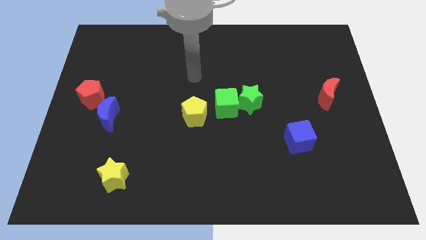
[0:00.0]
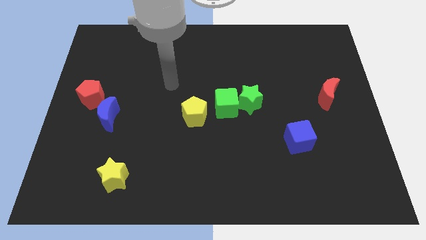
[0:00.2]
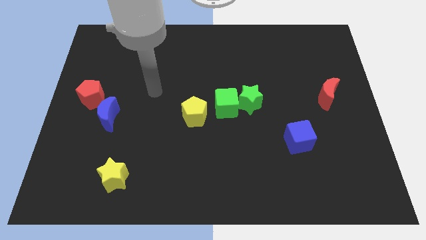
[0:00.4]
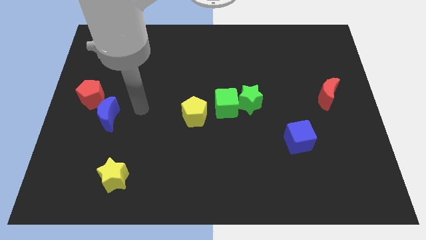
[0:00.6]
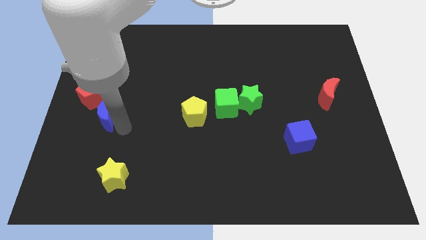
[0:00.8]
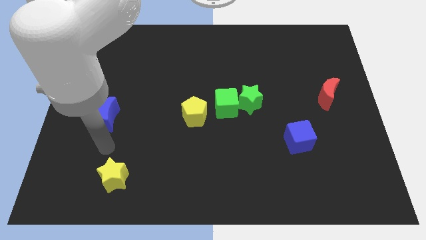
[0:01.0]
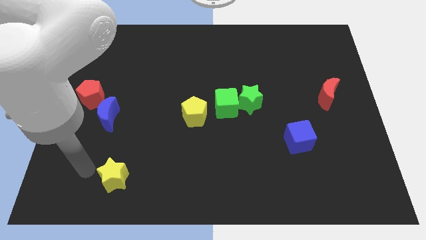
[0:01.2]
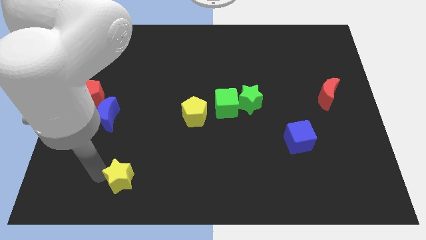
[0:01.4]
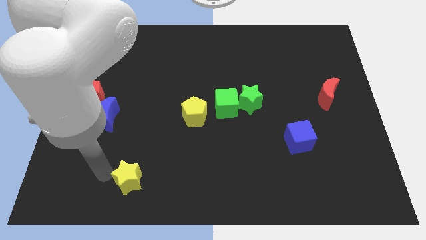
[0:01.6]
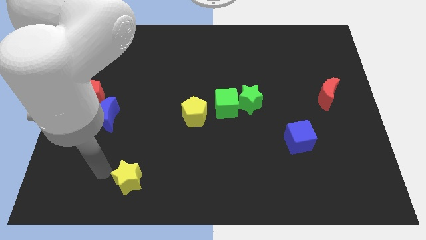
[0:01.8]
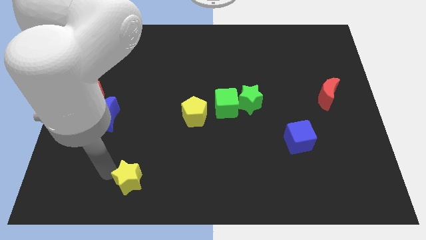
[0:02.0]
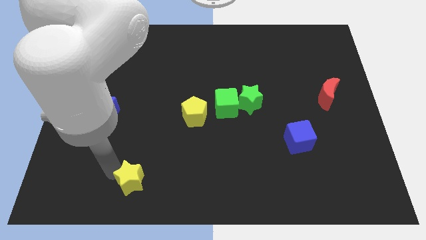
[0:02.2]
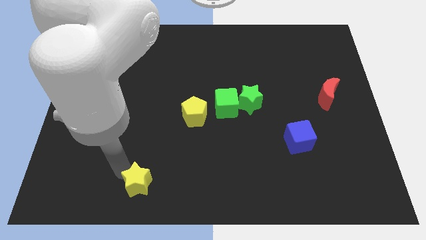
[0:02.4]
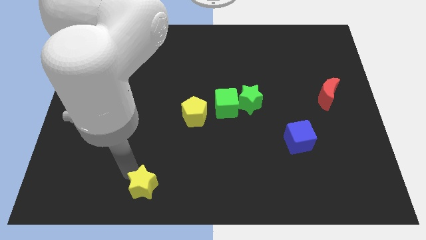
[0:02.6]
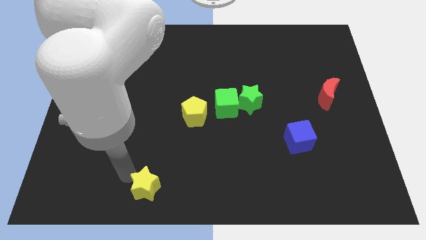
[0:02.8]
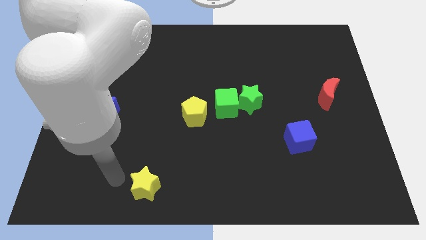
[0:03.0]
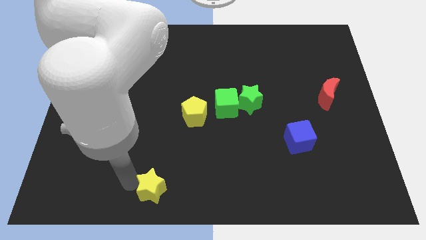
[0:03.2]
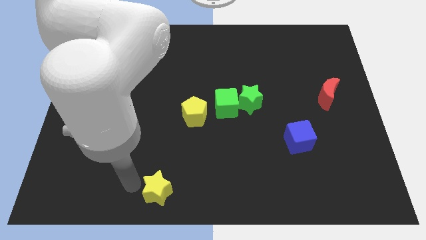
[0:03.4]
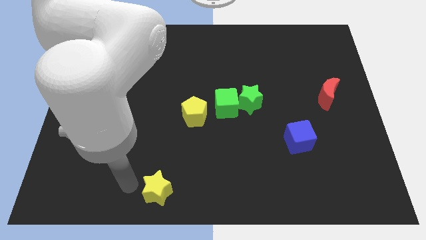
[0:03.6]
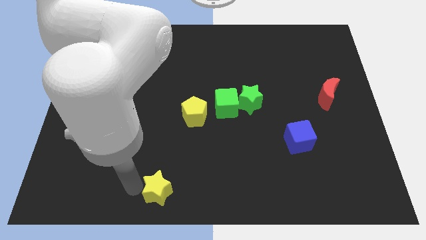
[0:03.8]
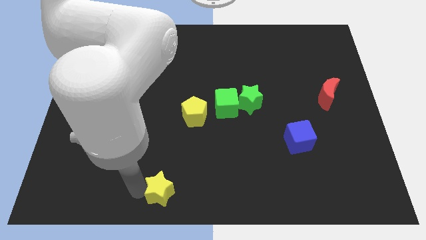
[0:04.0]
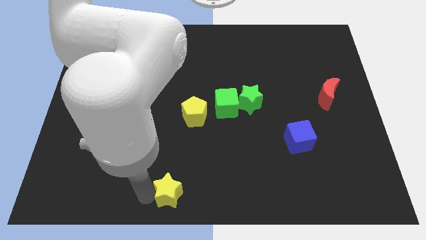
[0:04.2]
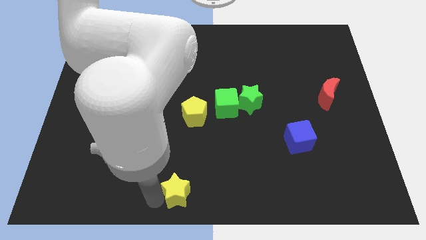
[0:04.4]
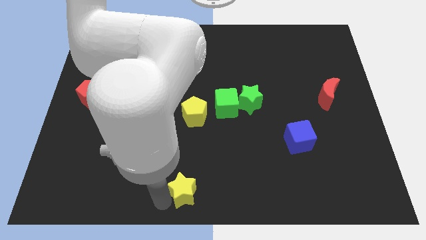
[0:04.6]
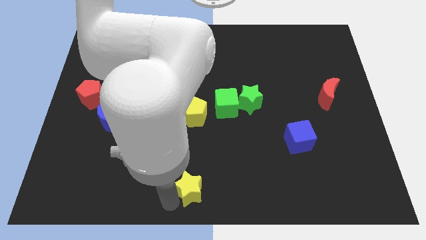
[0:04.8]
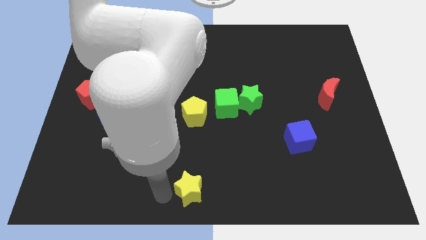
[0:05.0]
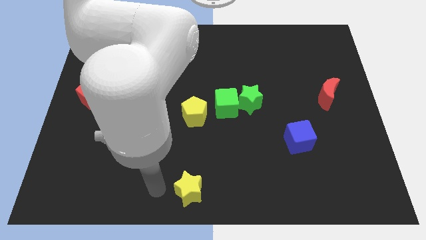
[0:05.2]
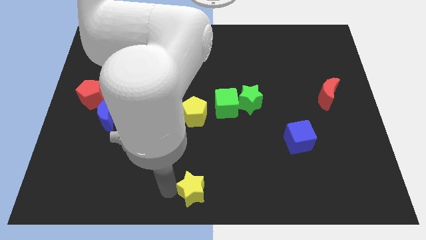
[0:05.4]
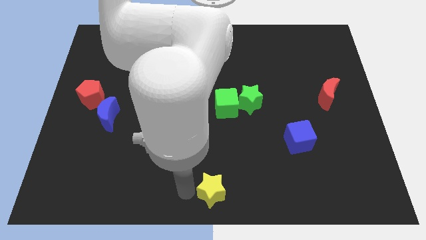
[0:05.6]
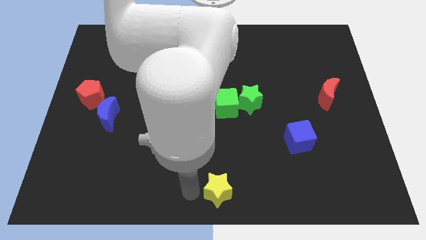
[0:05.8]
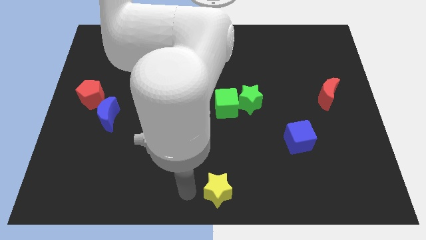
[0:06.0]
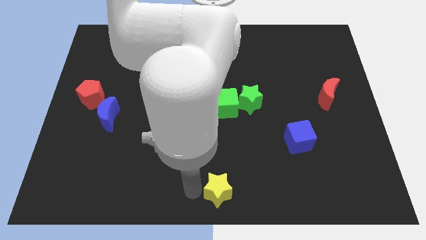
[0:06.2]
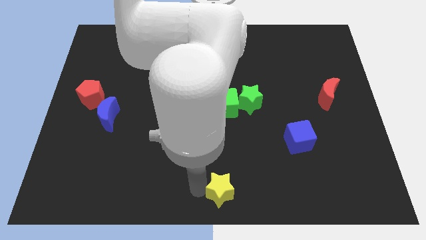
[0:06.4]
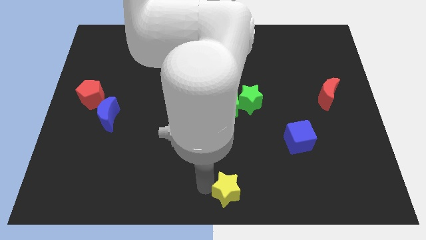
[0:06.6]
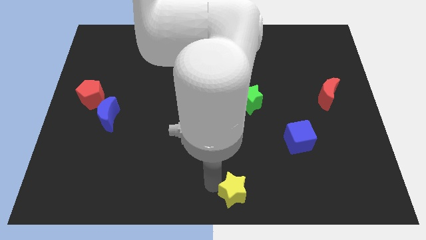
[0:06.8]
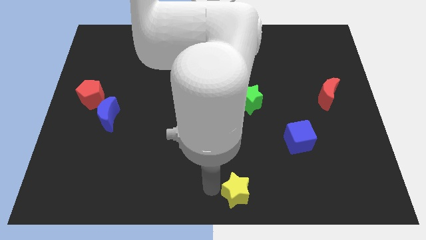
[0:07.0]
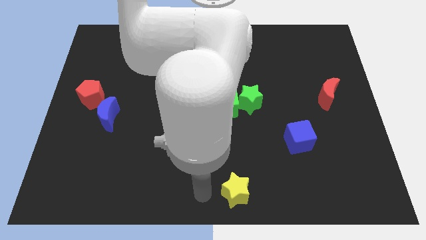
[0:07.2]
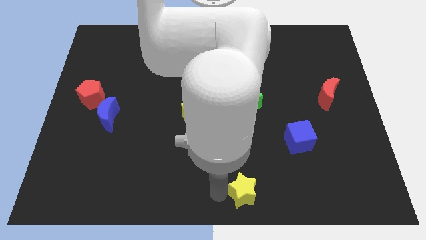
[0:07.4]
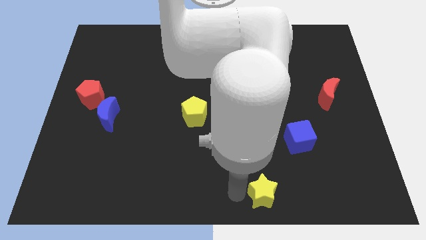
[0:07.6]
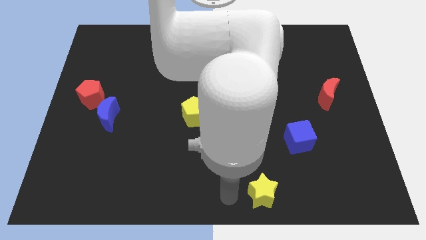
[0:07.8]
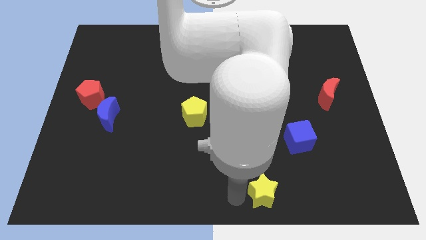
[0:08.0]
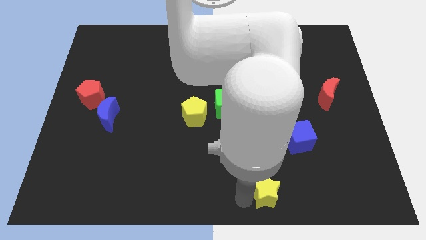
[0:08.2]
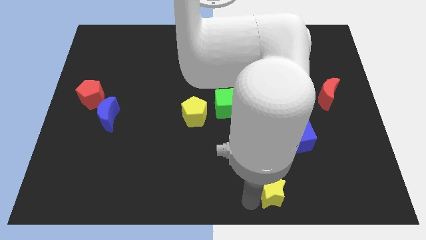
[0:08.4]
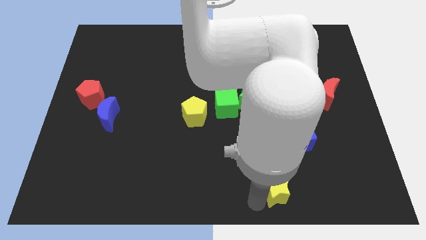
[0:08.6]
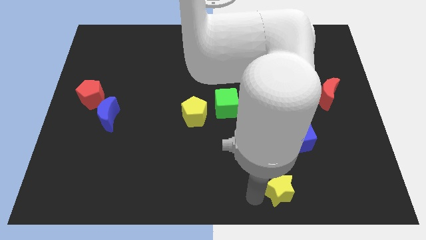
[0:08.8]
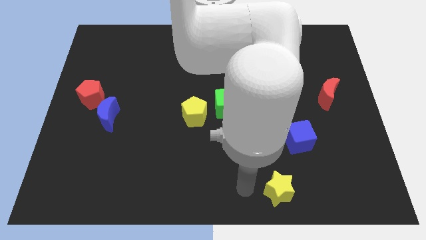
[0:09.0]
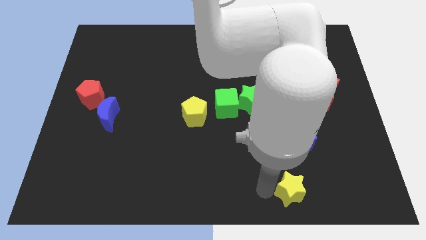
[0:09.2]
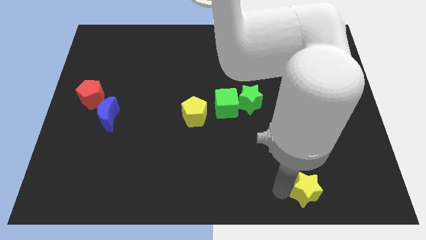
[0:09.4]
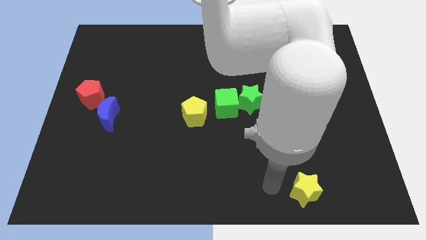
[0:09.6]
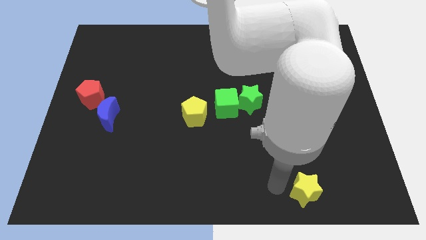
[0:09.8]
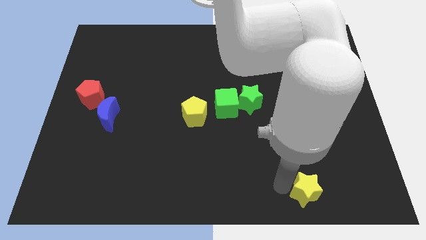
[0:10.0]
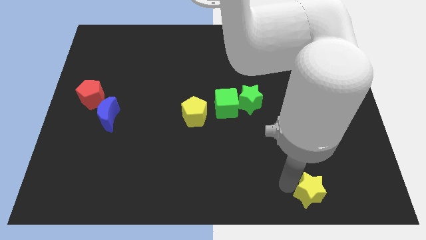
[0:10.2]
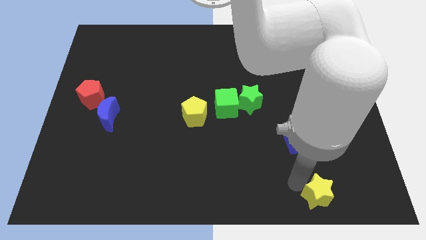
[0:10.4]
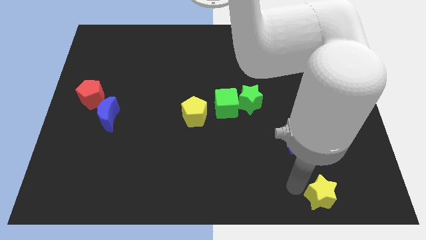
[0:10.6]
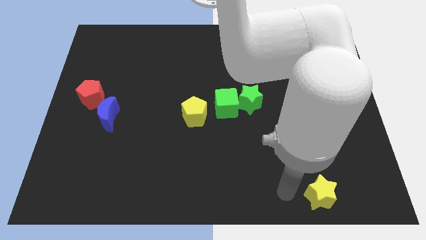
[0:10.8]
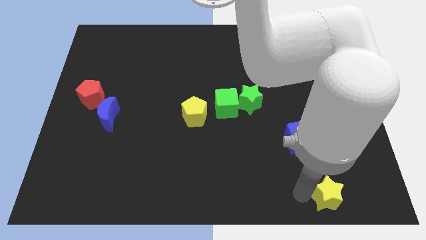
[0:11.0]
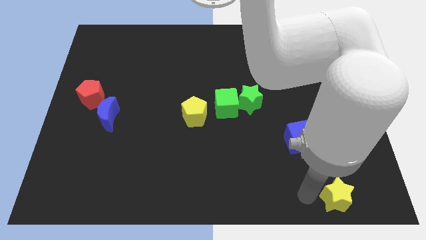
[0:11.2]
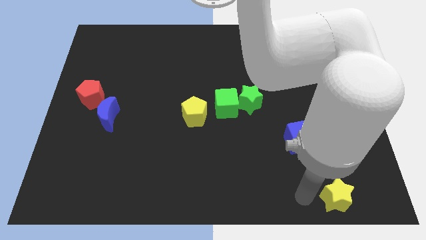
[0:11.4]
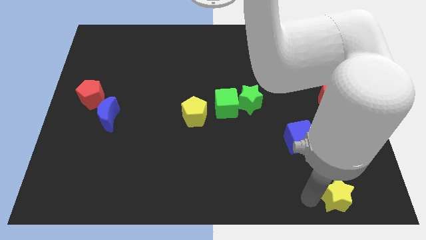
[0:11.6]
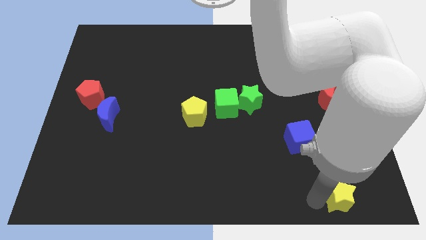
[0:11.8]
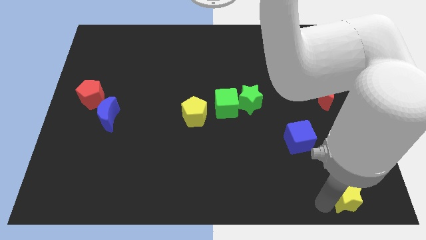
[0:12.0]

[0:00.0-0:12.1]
slide the yellow star to the lower right corner

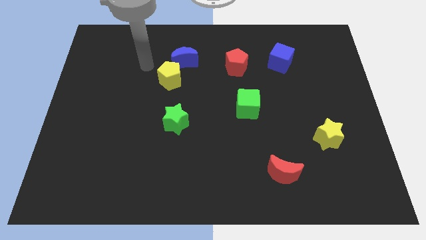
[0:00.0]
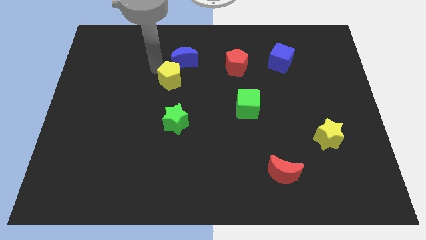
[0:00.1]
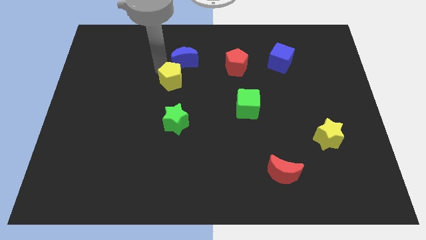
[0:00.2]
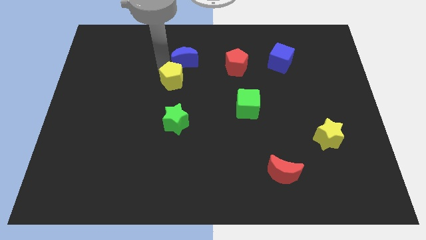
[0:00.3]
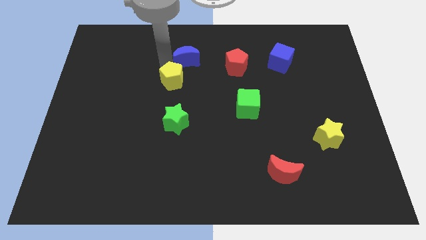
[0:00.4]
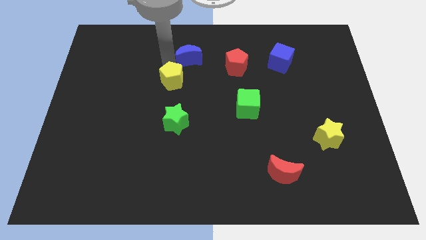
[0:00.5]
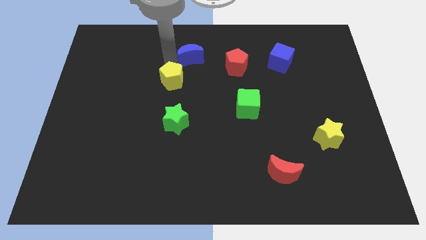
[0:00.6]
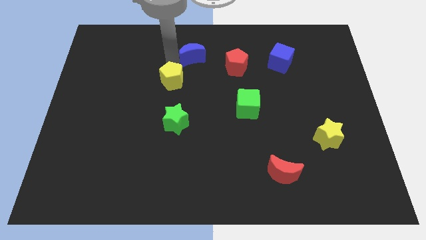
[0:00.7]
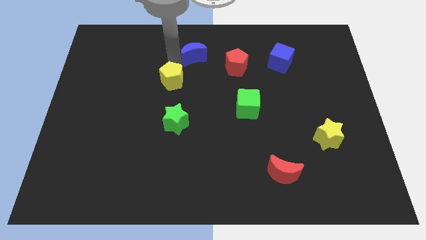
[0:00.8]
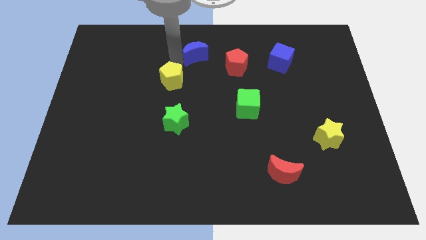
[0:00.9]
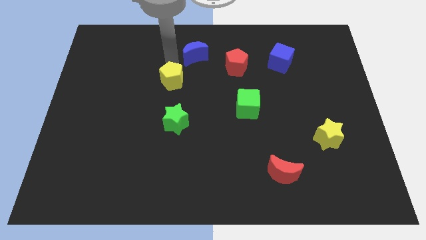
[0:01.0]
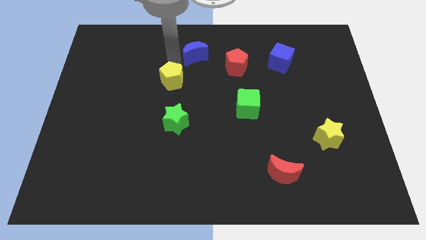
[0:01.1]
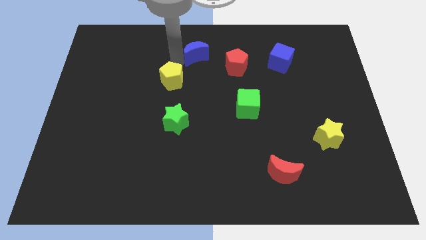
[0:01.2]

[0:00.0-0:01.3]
slide the blue moon to the top
